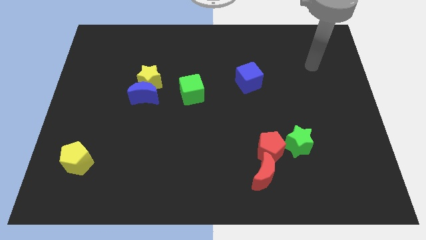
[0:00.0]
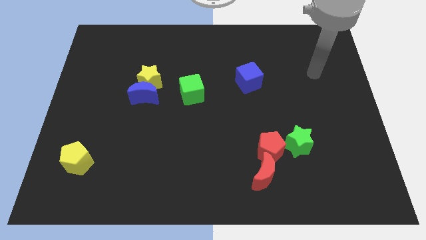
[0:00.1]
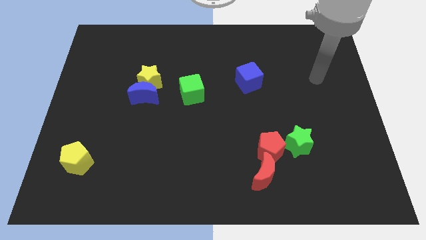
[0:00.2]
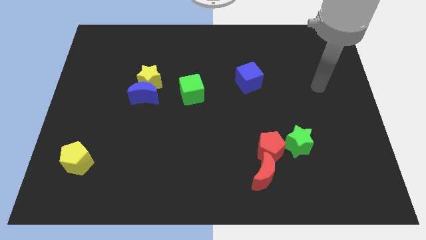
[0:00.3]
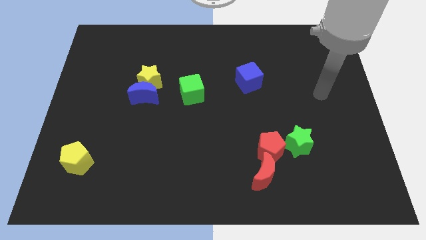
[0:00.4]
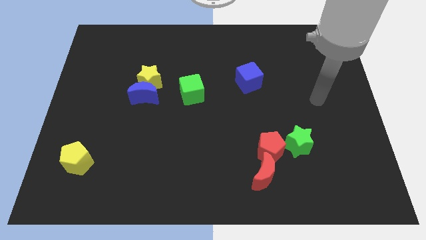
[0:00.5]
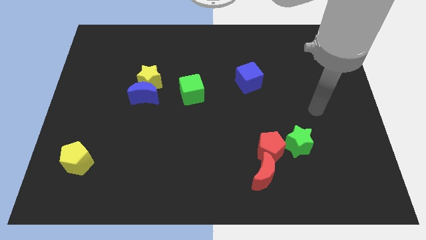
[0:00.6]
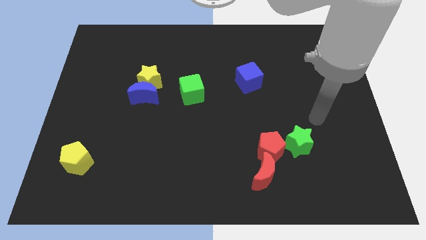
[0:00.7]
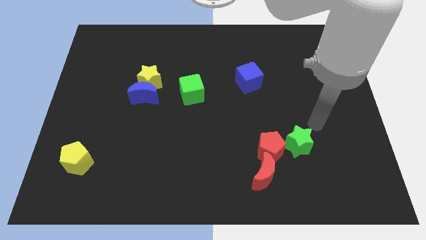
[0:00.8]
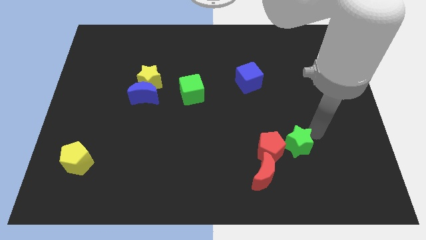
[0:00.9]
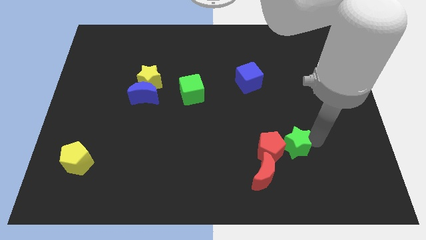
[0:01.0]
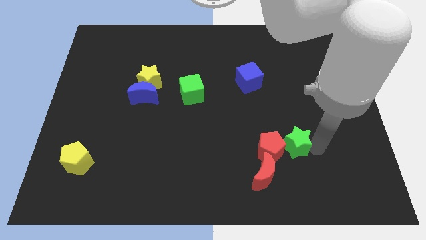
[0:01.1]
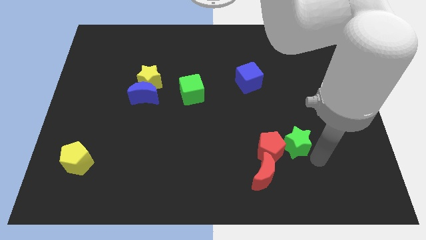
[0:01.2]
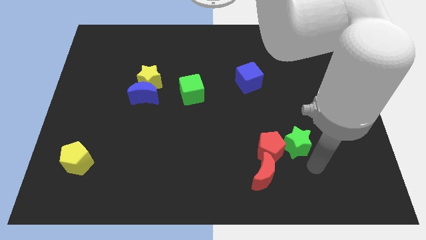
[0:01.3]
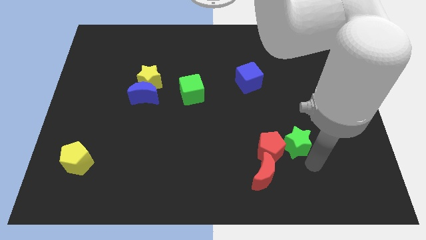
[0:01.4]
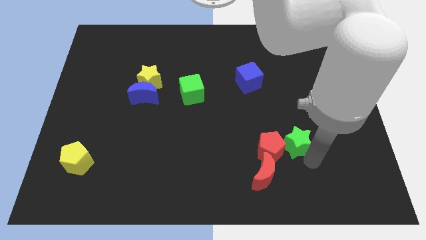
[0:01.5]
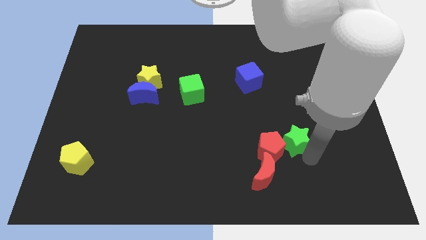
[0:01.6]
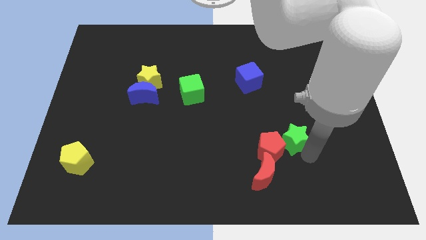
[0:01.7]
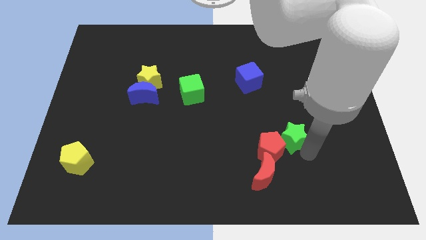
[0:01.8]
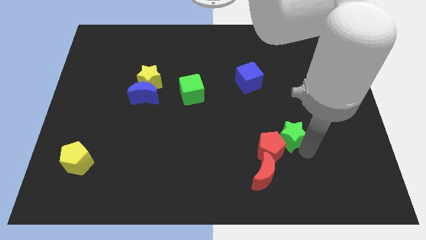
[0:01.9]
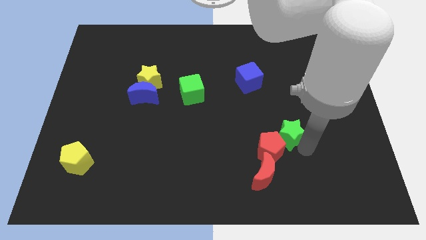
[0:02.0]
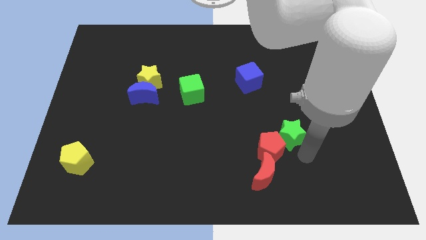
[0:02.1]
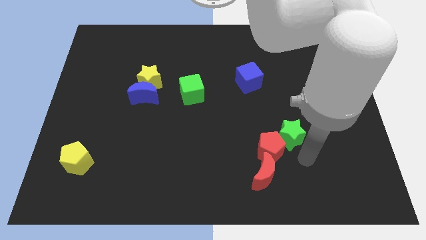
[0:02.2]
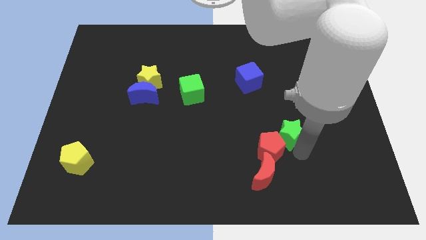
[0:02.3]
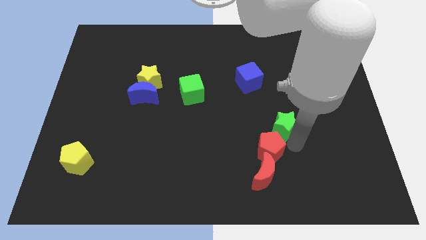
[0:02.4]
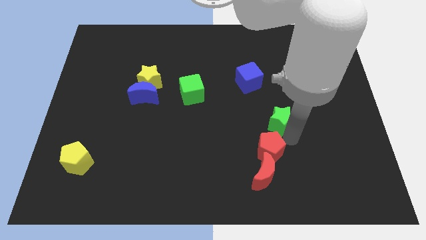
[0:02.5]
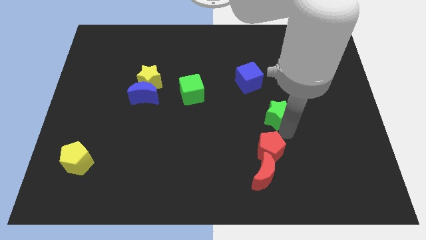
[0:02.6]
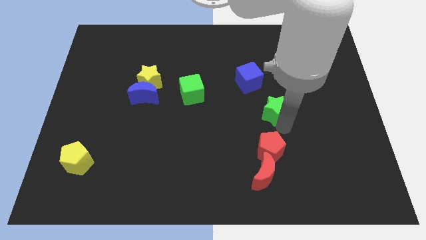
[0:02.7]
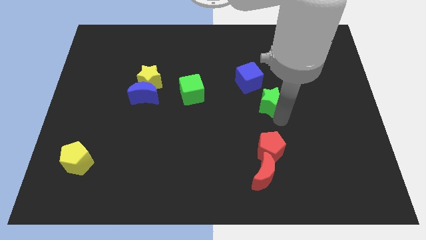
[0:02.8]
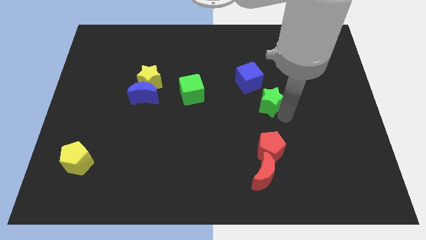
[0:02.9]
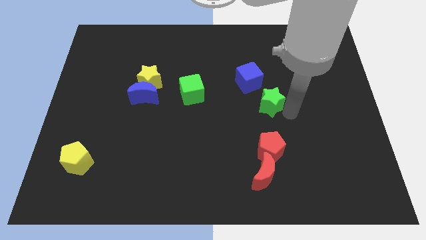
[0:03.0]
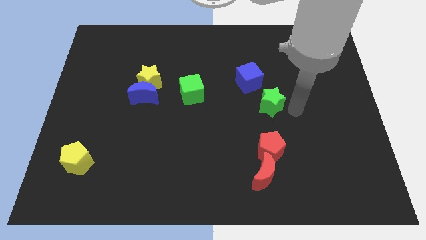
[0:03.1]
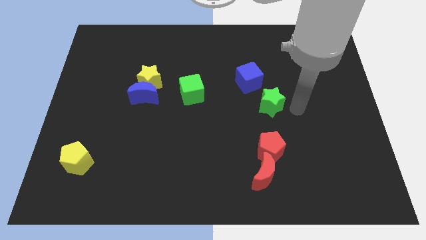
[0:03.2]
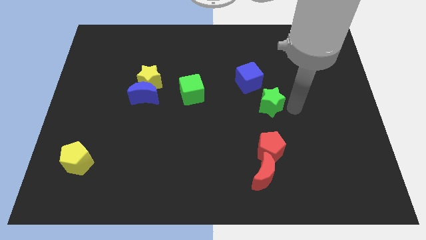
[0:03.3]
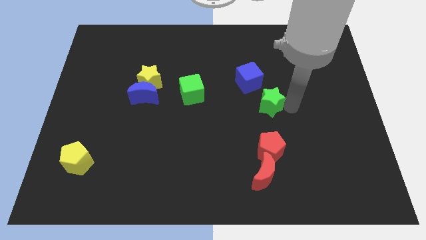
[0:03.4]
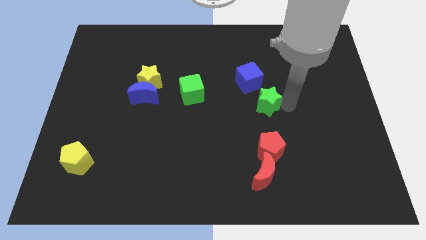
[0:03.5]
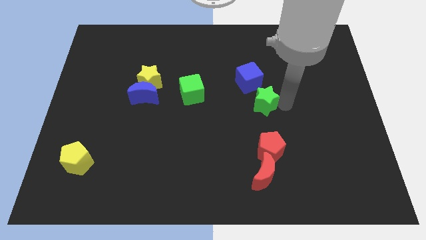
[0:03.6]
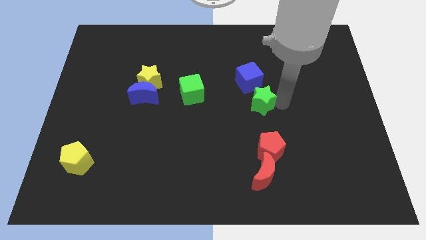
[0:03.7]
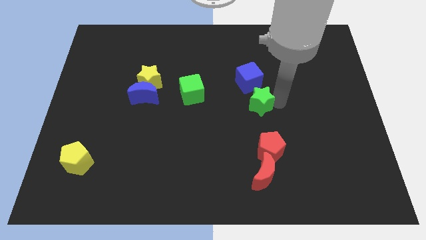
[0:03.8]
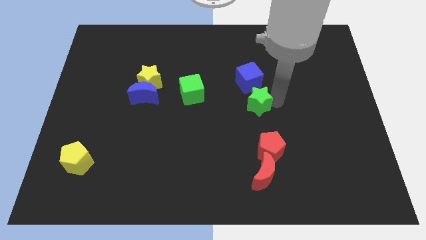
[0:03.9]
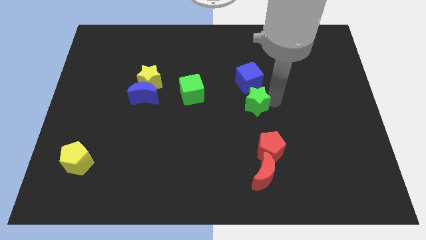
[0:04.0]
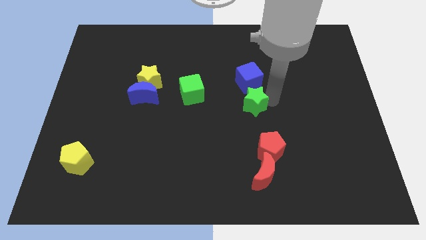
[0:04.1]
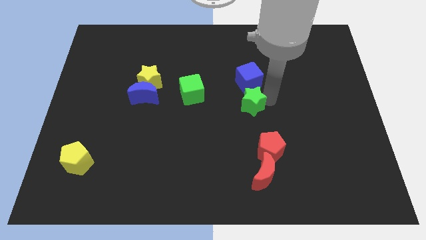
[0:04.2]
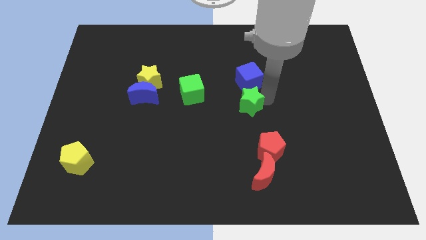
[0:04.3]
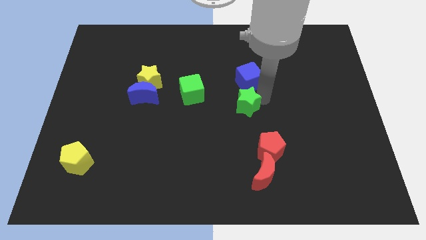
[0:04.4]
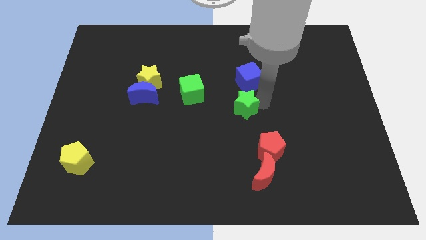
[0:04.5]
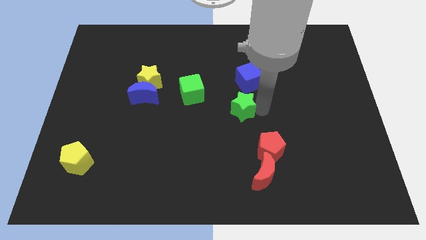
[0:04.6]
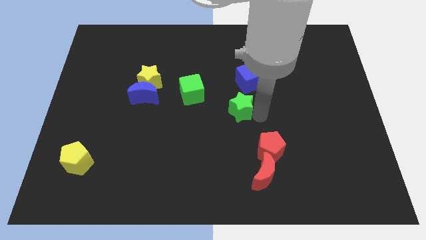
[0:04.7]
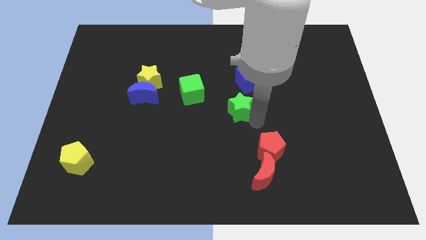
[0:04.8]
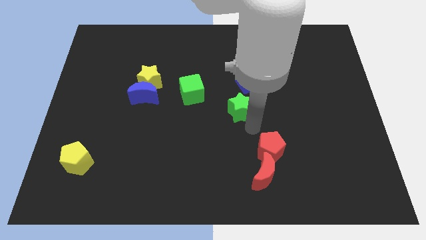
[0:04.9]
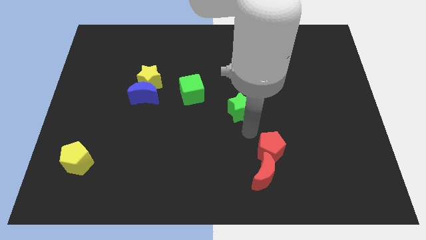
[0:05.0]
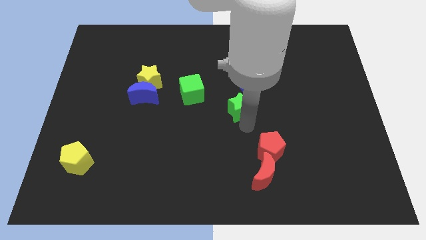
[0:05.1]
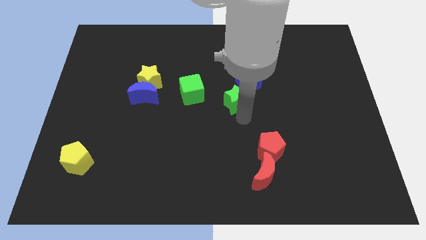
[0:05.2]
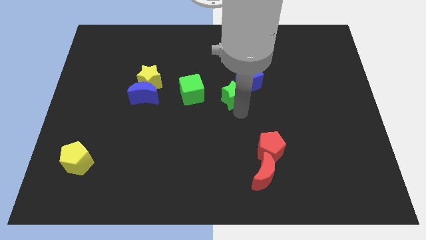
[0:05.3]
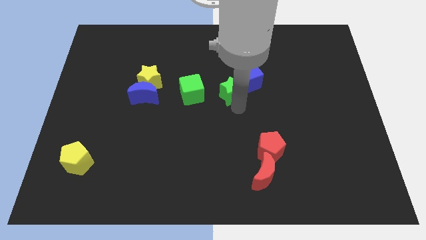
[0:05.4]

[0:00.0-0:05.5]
move the green star up and left diagonally

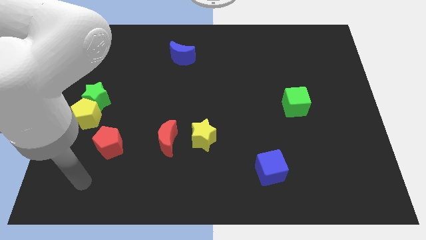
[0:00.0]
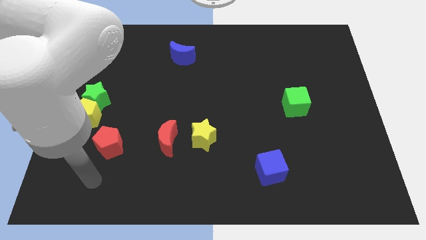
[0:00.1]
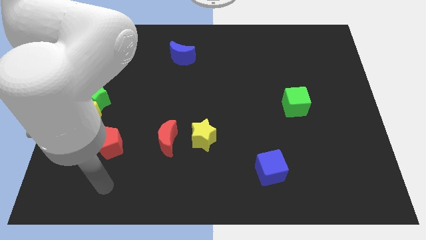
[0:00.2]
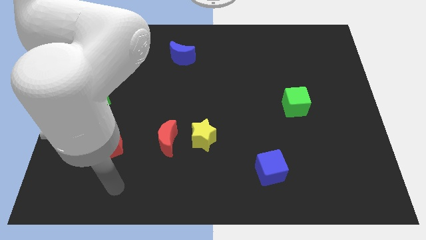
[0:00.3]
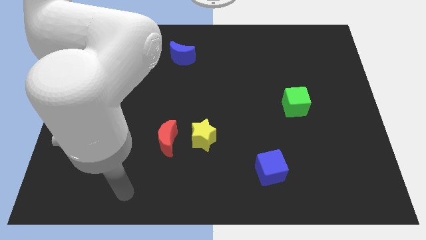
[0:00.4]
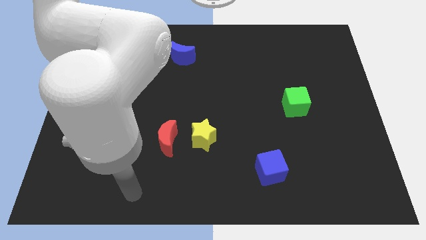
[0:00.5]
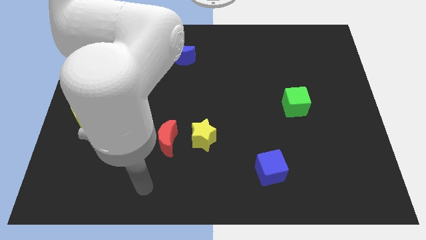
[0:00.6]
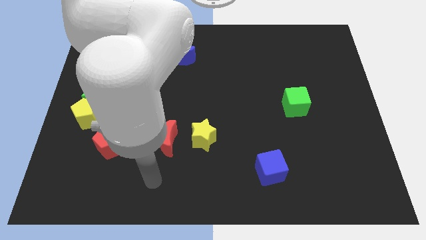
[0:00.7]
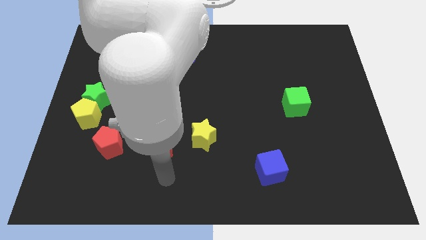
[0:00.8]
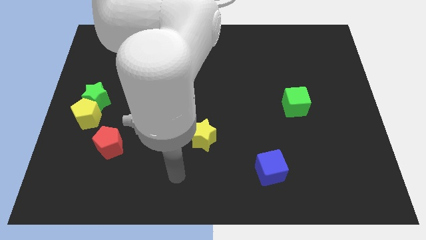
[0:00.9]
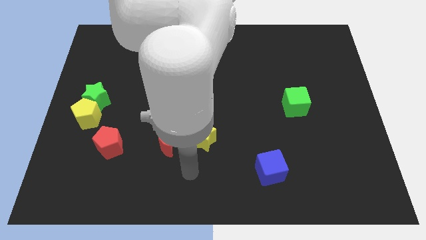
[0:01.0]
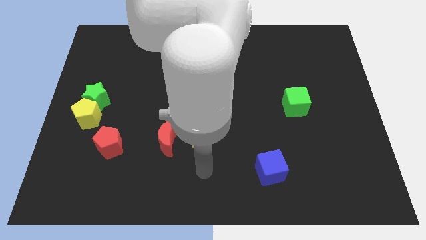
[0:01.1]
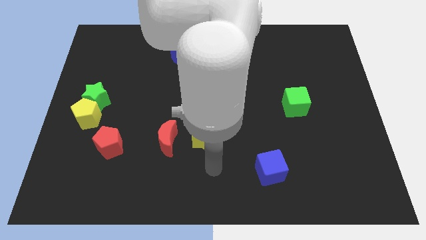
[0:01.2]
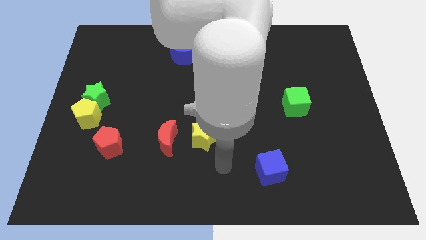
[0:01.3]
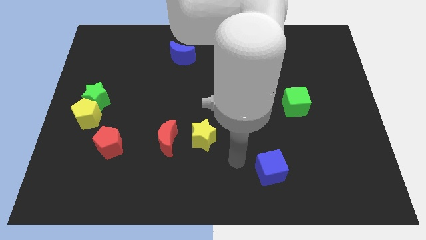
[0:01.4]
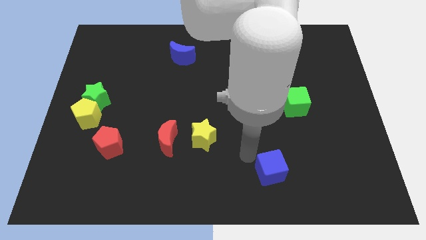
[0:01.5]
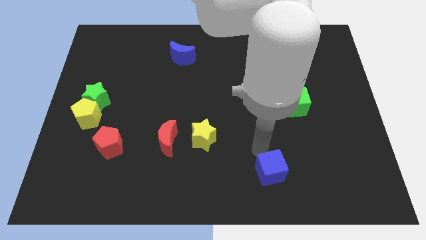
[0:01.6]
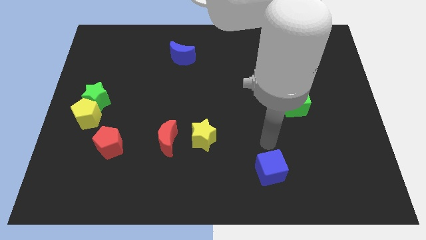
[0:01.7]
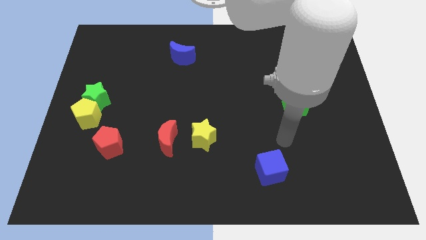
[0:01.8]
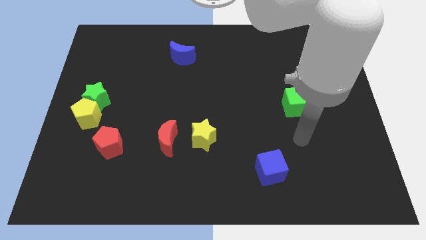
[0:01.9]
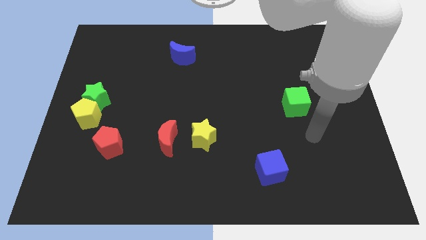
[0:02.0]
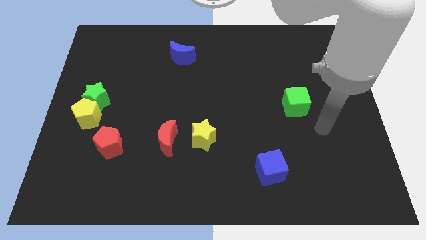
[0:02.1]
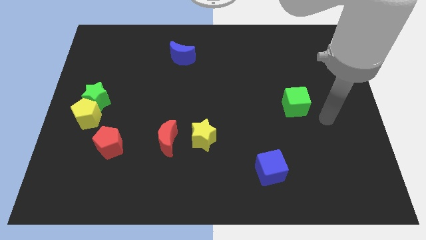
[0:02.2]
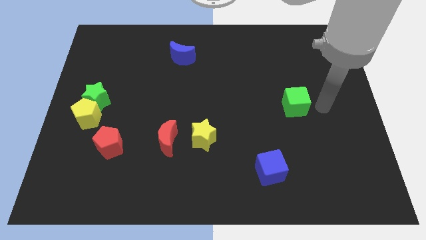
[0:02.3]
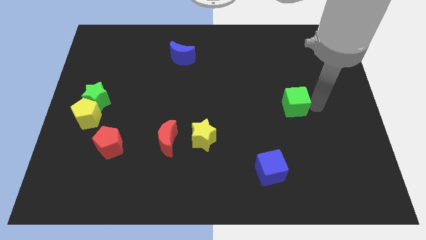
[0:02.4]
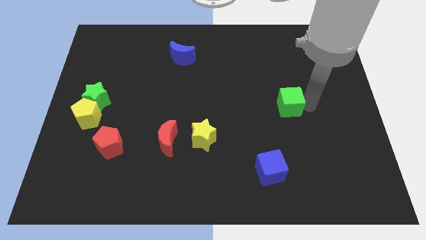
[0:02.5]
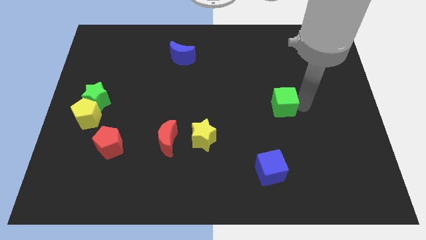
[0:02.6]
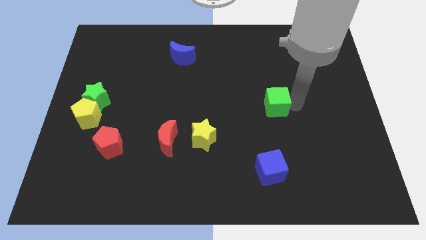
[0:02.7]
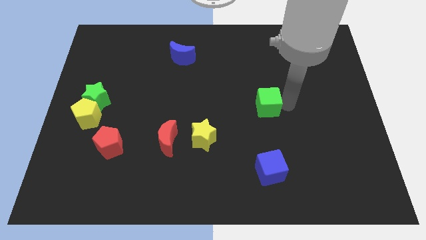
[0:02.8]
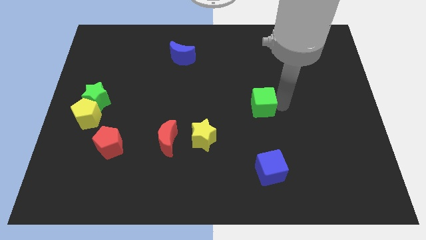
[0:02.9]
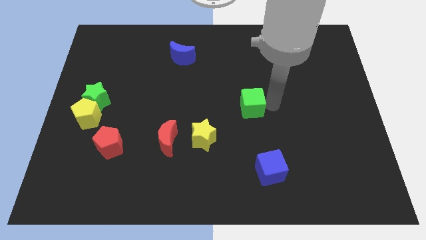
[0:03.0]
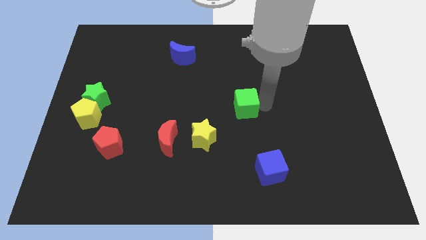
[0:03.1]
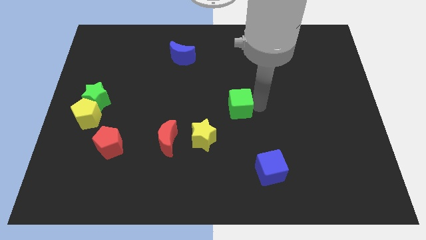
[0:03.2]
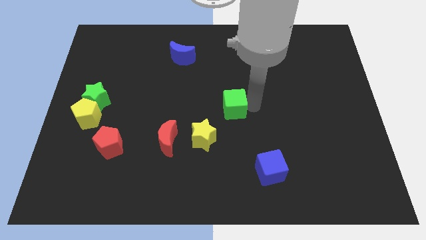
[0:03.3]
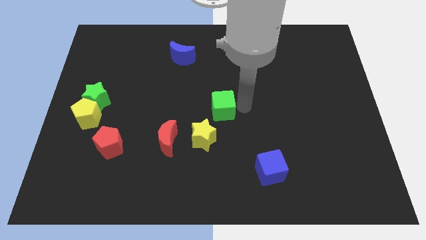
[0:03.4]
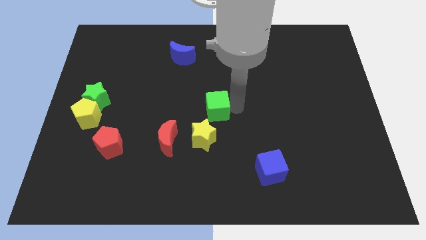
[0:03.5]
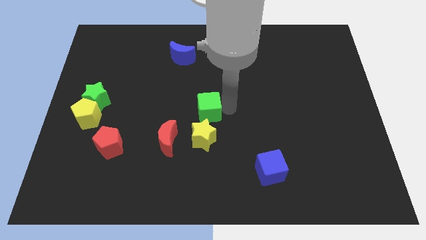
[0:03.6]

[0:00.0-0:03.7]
push the green cube to the left
